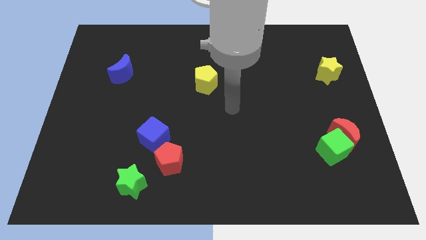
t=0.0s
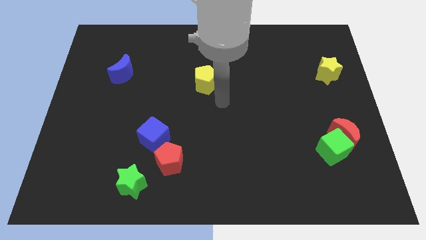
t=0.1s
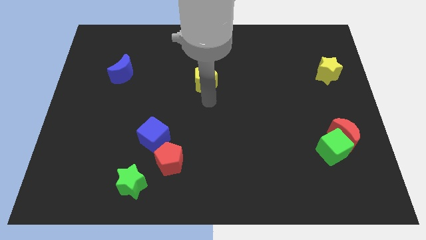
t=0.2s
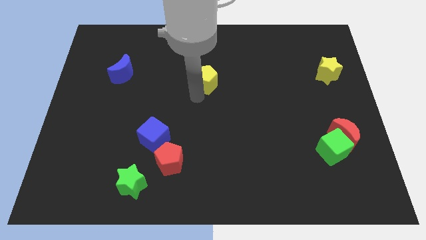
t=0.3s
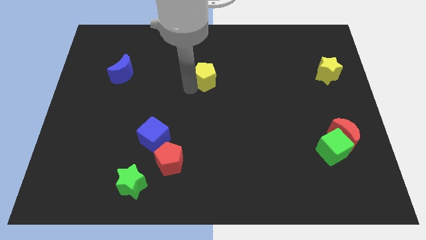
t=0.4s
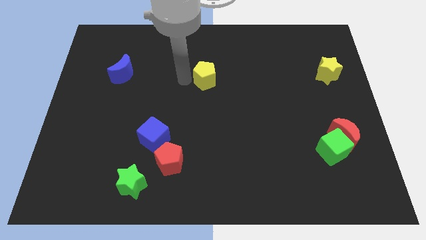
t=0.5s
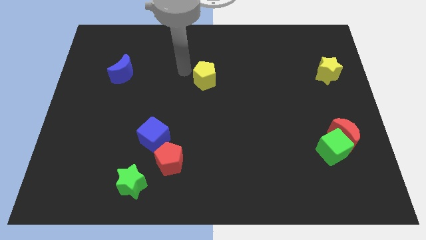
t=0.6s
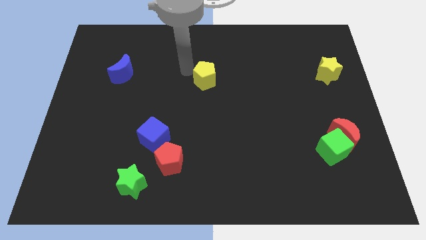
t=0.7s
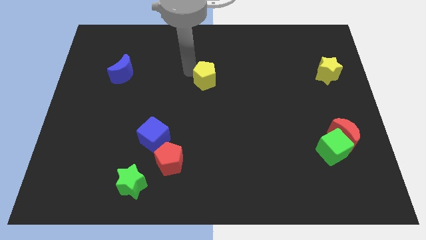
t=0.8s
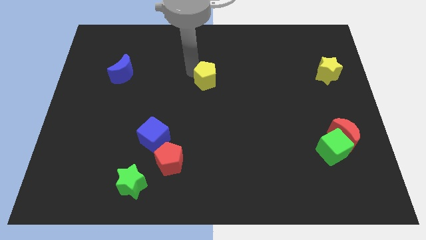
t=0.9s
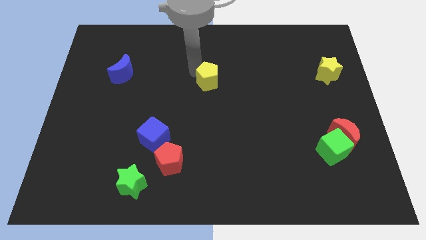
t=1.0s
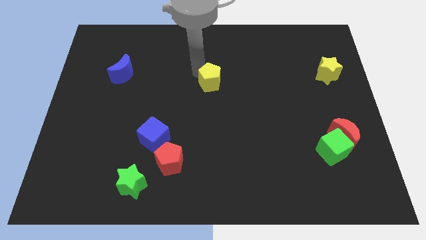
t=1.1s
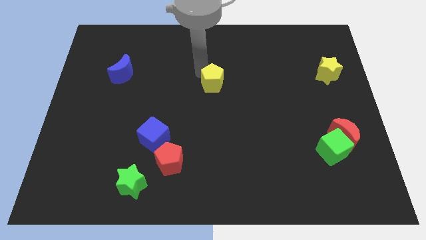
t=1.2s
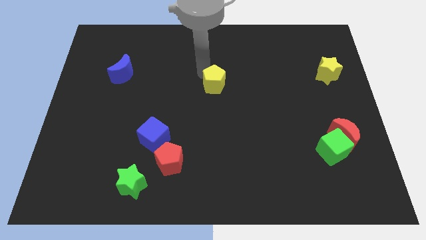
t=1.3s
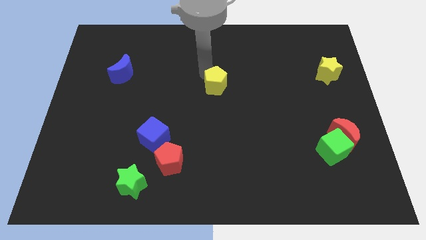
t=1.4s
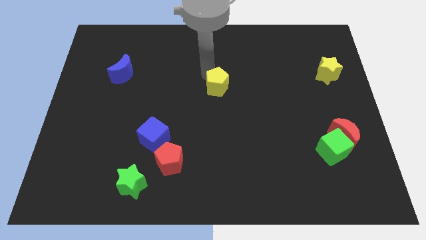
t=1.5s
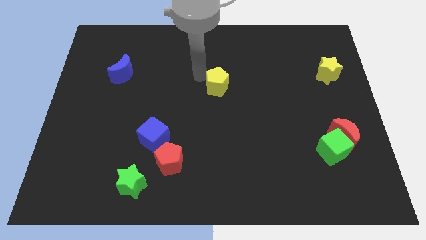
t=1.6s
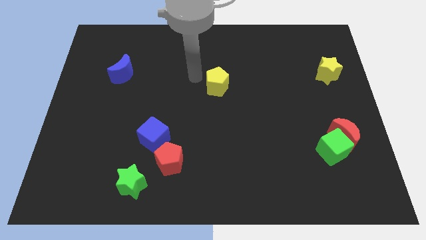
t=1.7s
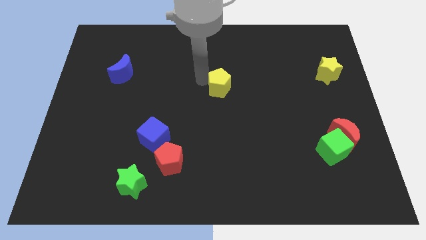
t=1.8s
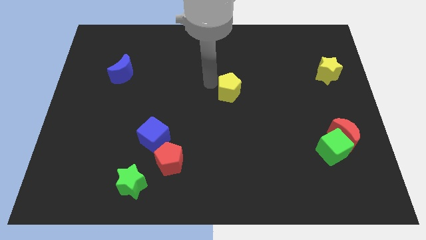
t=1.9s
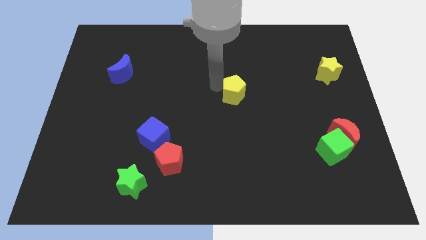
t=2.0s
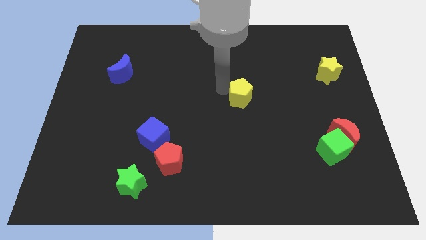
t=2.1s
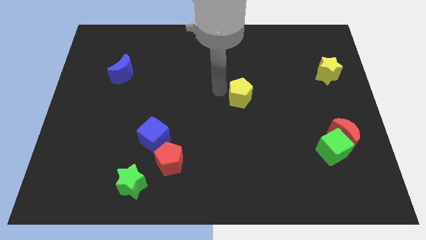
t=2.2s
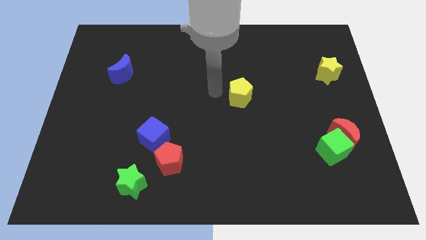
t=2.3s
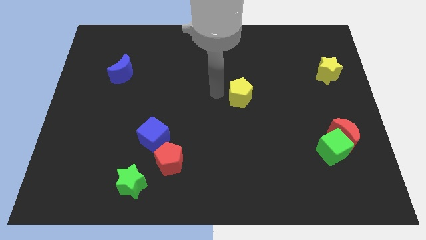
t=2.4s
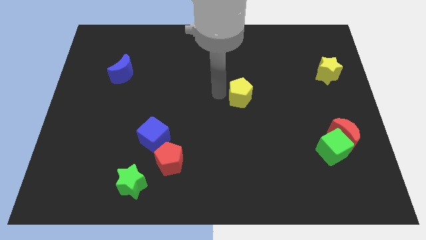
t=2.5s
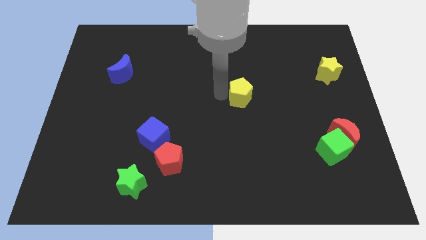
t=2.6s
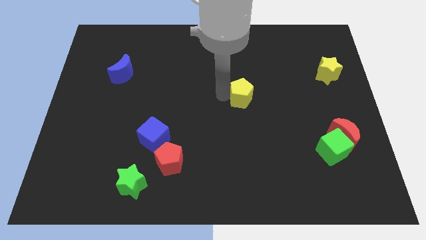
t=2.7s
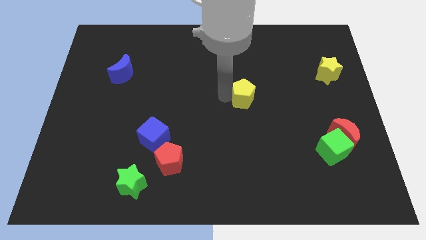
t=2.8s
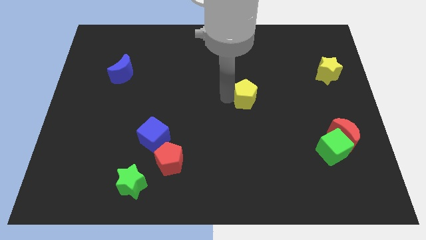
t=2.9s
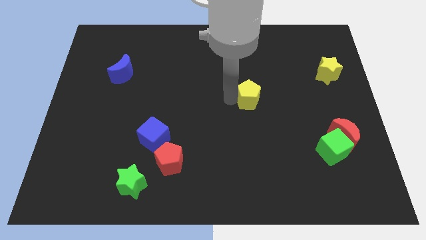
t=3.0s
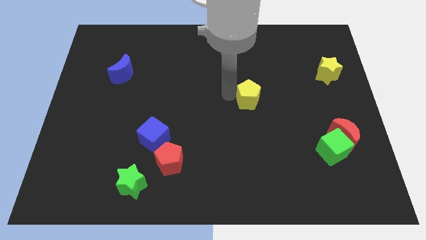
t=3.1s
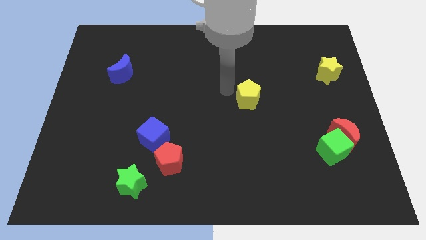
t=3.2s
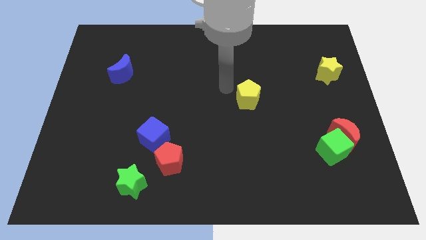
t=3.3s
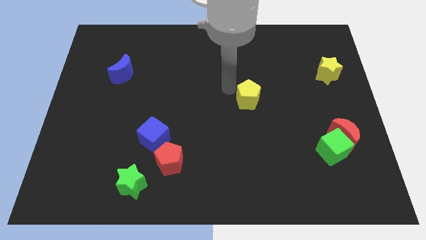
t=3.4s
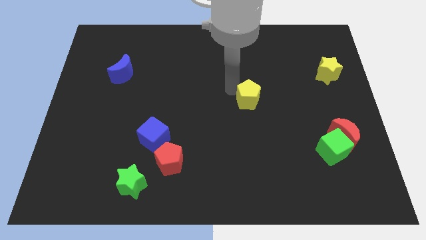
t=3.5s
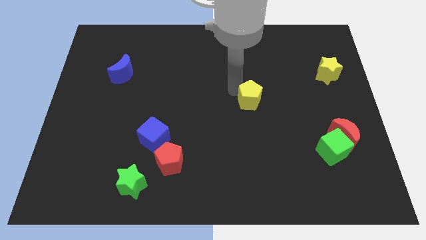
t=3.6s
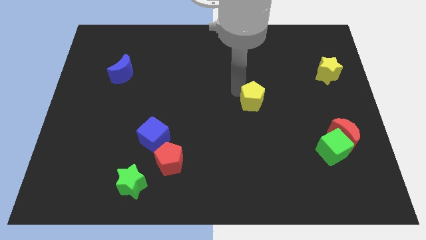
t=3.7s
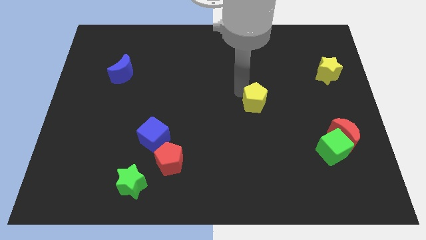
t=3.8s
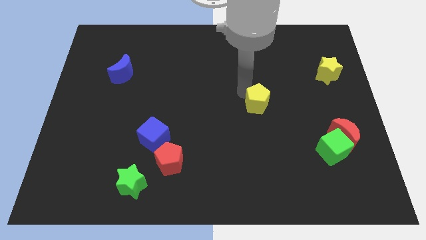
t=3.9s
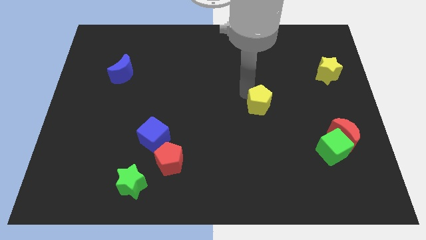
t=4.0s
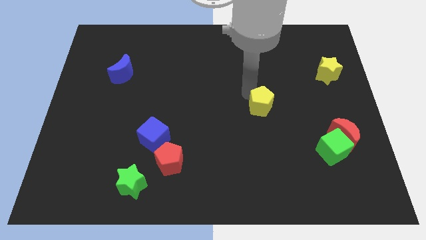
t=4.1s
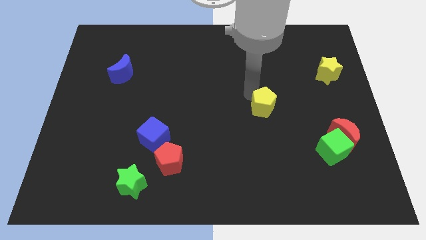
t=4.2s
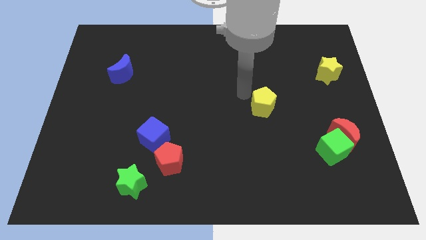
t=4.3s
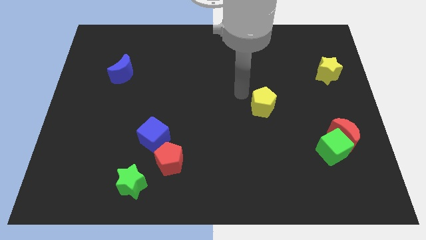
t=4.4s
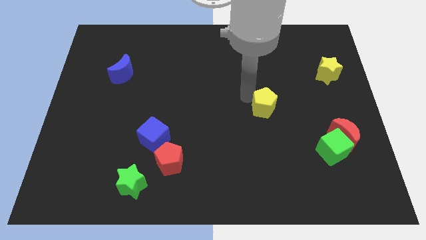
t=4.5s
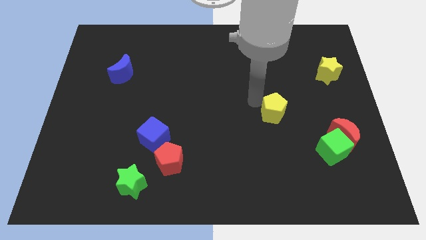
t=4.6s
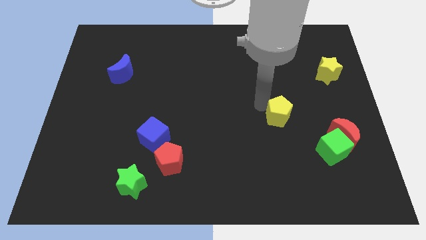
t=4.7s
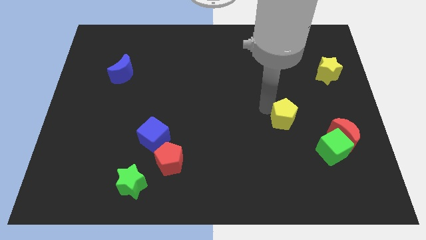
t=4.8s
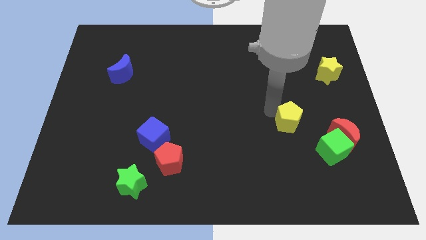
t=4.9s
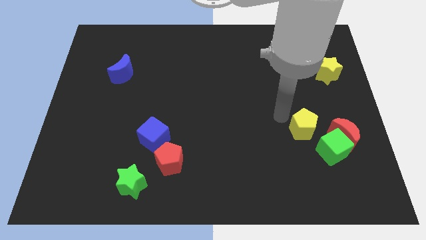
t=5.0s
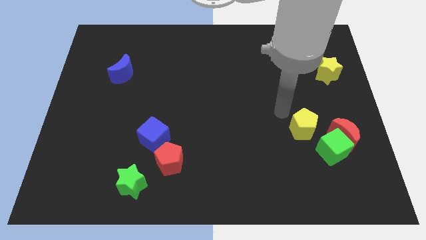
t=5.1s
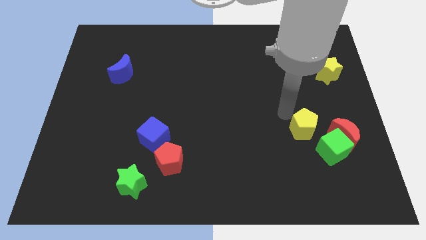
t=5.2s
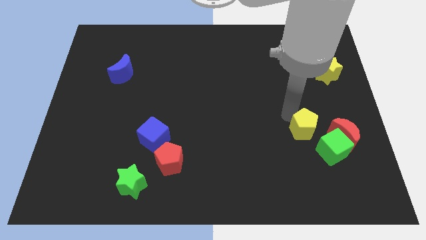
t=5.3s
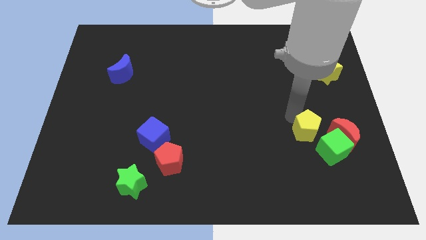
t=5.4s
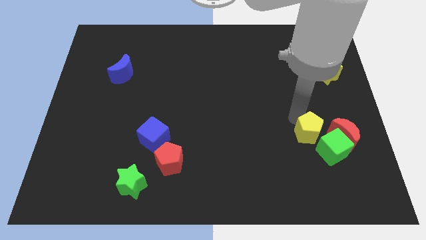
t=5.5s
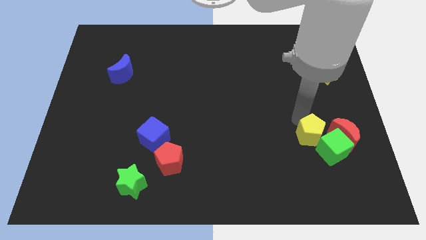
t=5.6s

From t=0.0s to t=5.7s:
push the yellow pentagon to the green cube
